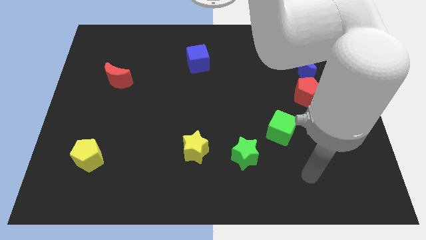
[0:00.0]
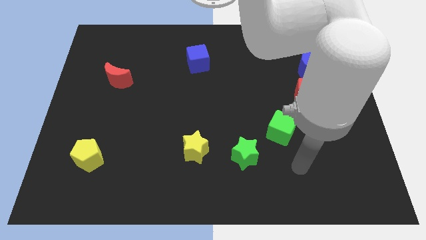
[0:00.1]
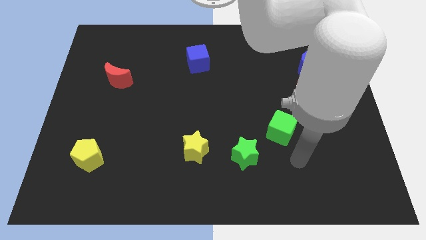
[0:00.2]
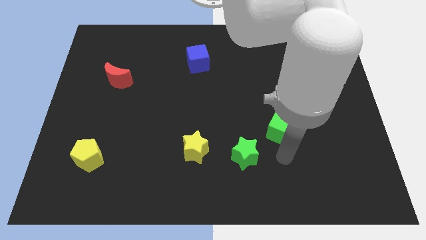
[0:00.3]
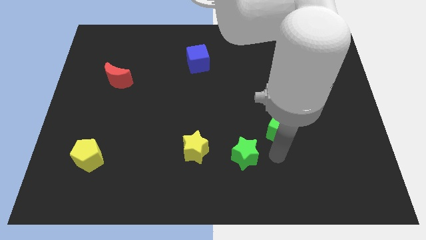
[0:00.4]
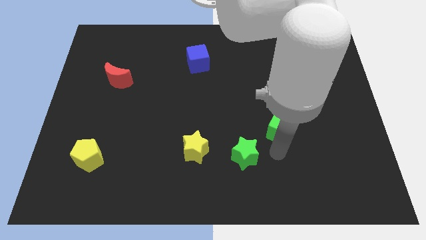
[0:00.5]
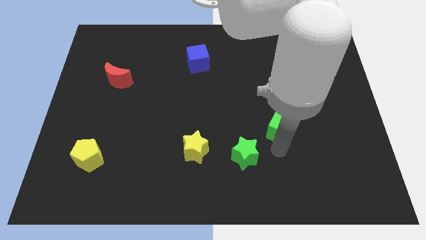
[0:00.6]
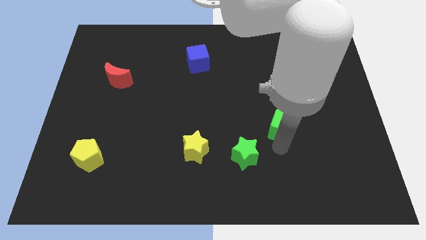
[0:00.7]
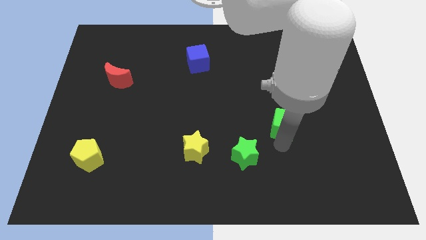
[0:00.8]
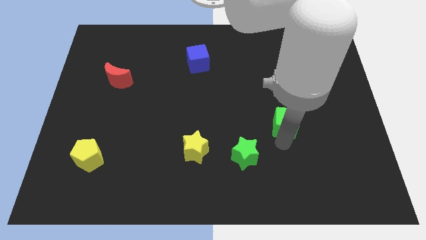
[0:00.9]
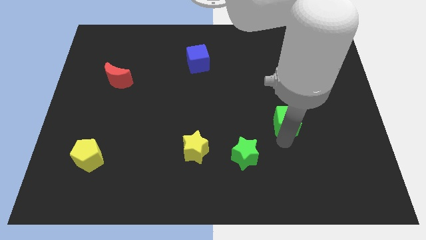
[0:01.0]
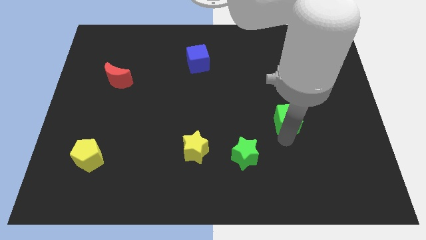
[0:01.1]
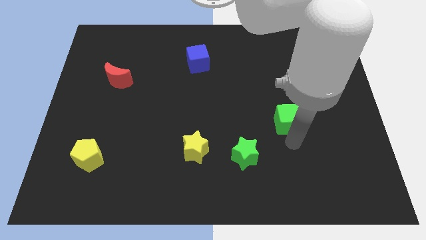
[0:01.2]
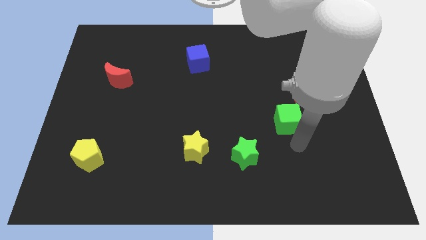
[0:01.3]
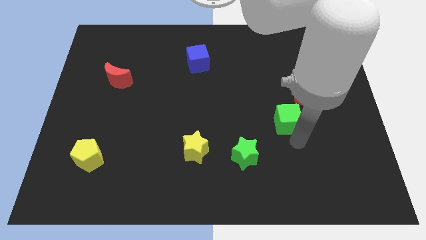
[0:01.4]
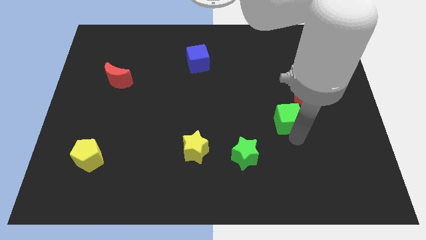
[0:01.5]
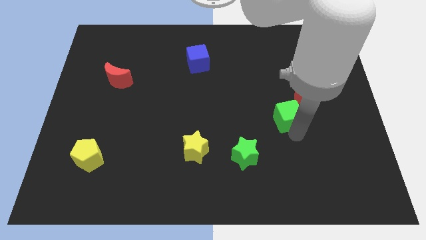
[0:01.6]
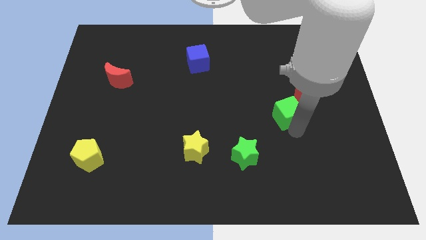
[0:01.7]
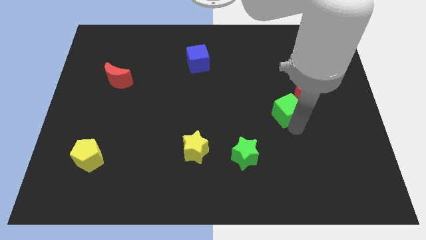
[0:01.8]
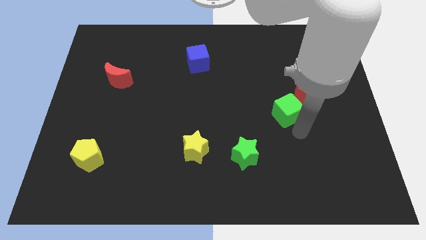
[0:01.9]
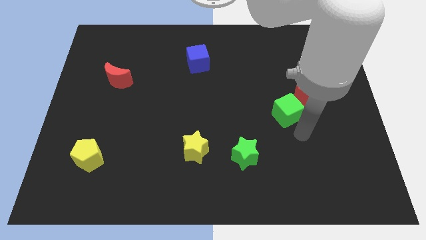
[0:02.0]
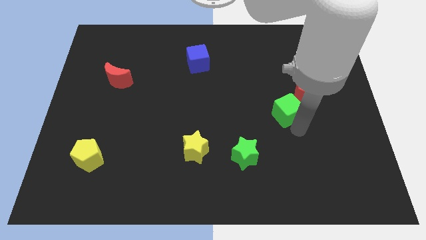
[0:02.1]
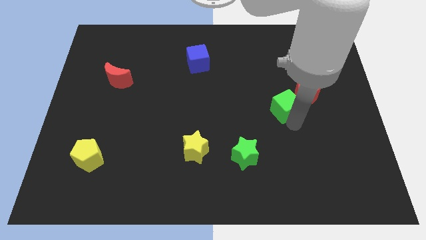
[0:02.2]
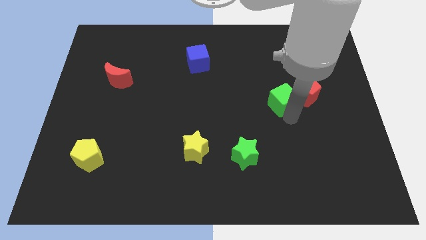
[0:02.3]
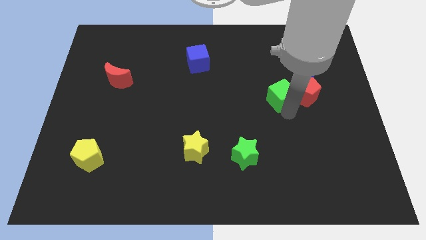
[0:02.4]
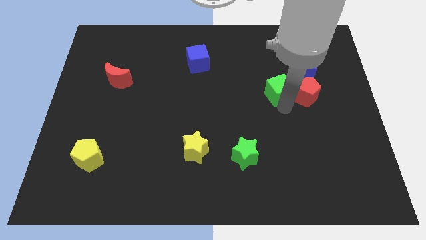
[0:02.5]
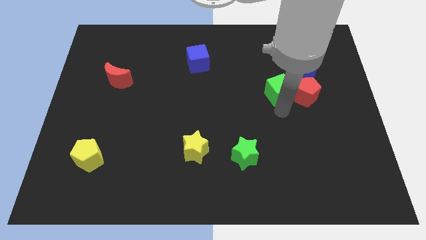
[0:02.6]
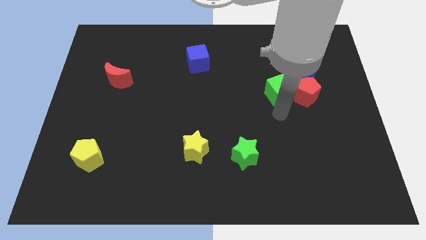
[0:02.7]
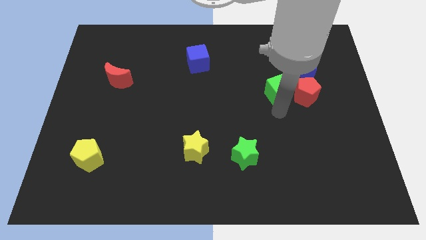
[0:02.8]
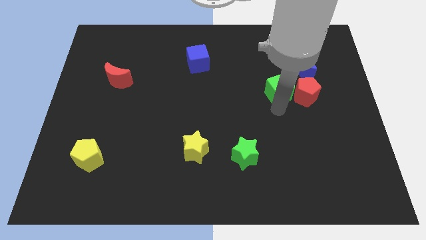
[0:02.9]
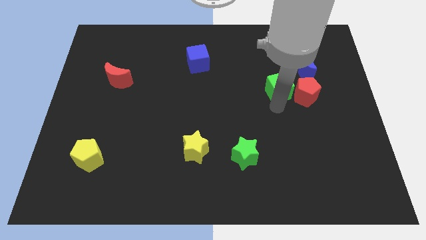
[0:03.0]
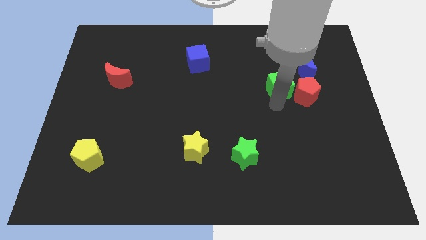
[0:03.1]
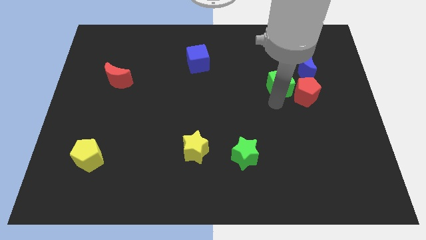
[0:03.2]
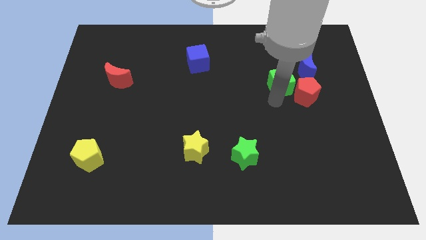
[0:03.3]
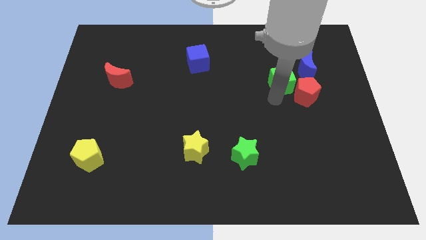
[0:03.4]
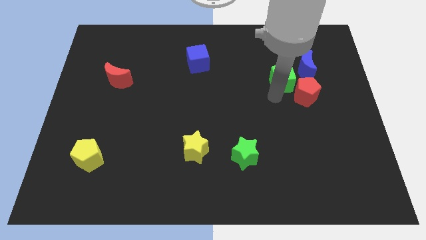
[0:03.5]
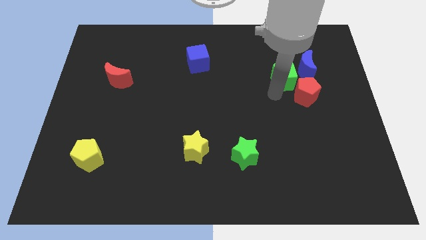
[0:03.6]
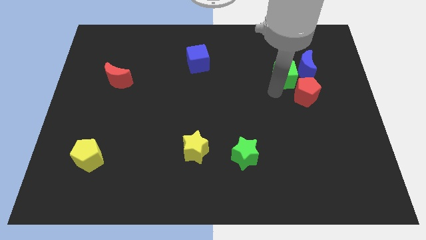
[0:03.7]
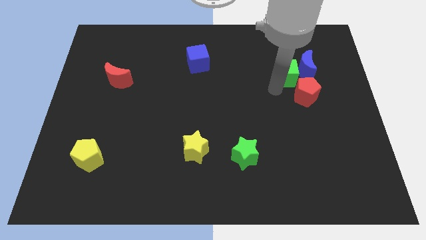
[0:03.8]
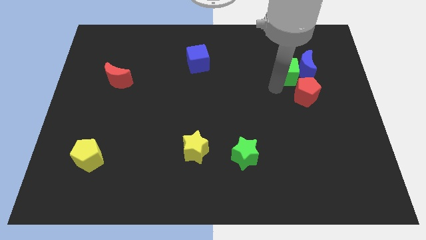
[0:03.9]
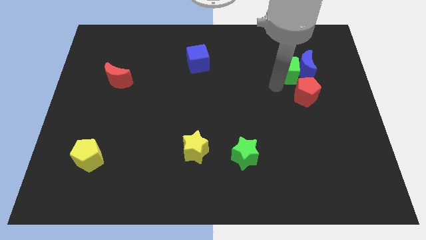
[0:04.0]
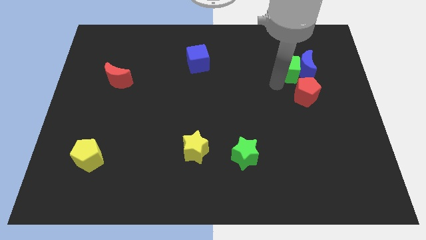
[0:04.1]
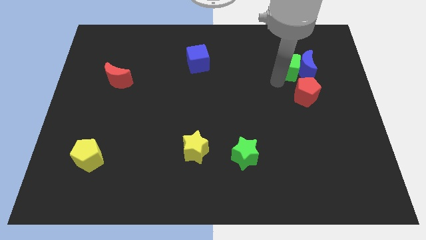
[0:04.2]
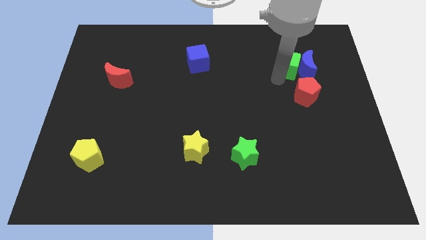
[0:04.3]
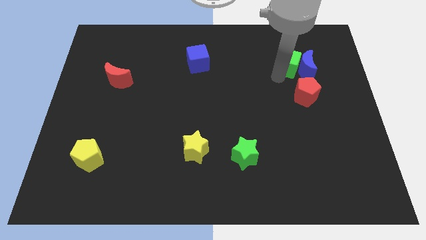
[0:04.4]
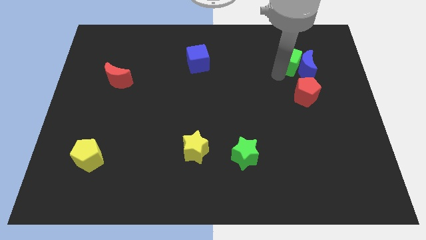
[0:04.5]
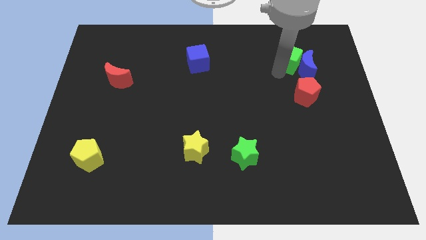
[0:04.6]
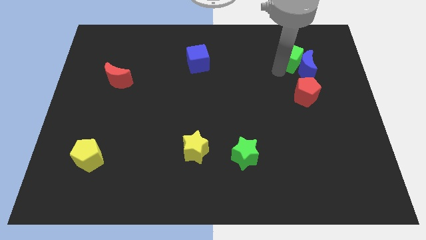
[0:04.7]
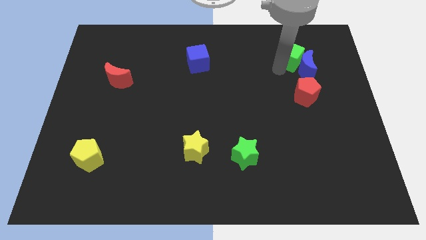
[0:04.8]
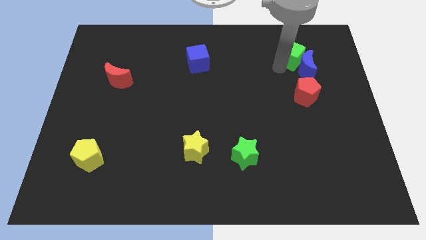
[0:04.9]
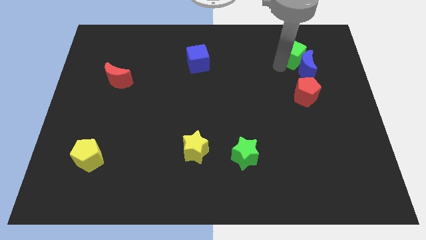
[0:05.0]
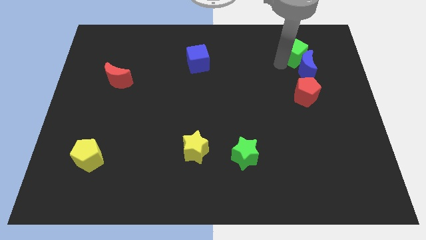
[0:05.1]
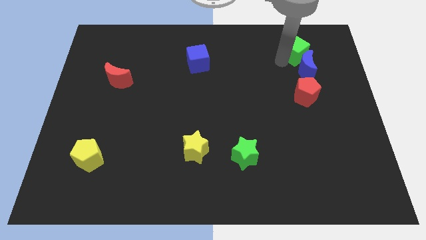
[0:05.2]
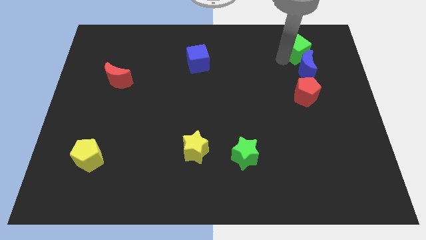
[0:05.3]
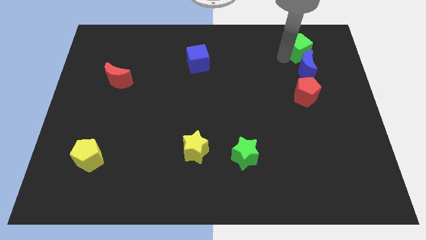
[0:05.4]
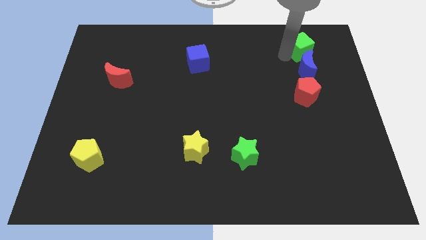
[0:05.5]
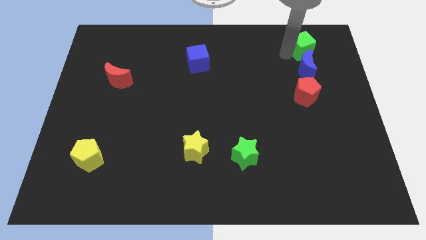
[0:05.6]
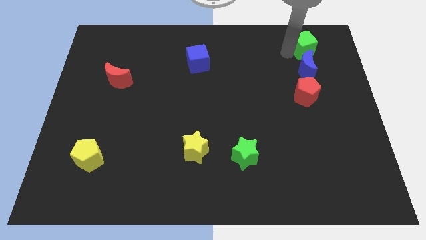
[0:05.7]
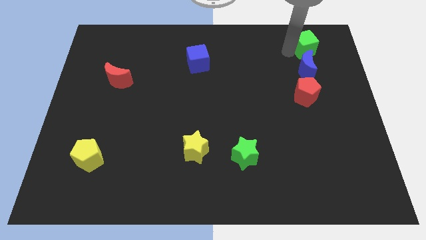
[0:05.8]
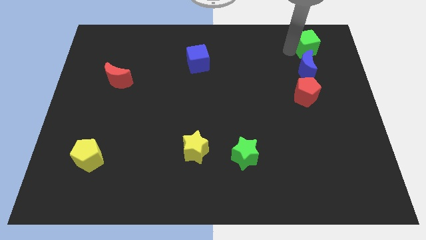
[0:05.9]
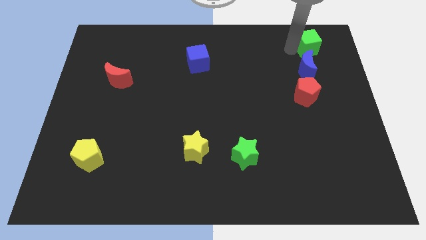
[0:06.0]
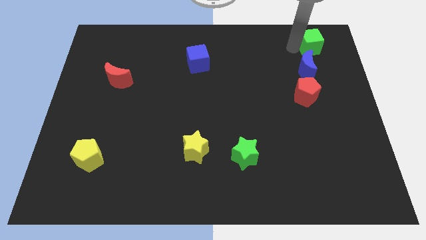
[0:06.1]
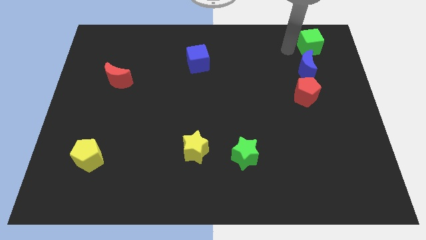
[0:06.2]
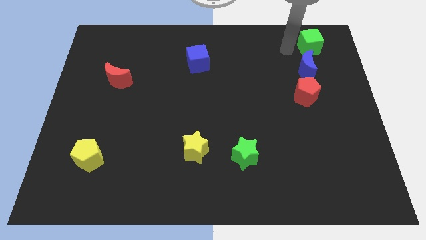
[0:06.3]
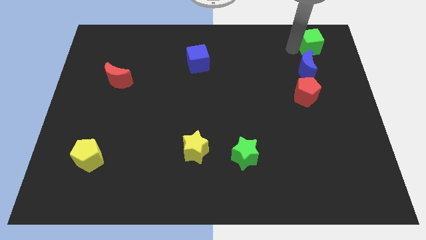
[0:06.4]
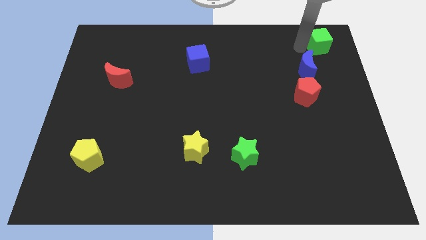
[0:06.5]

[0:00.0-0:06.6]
put the green cube to the top right

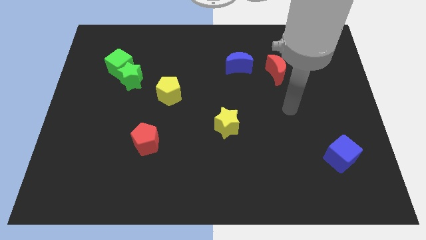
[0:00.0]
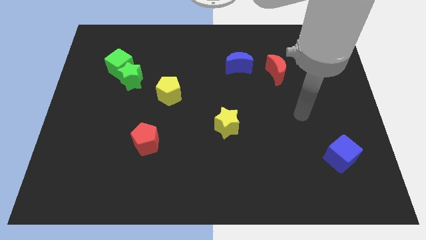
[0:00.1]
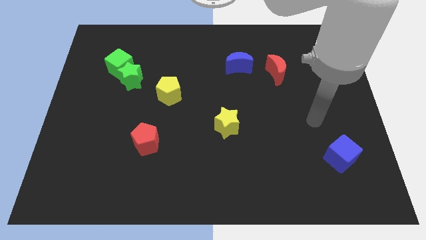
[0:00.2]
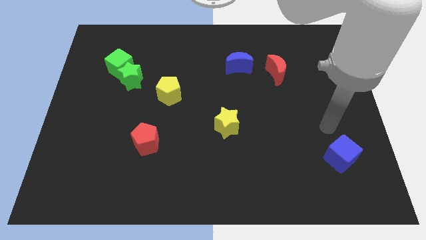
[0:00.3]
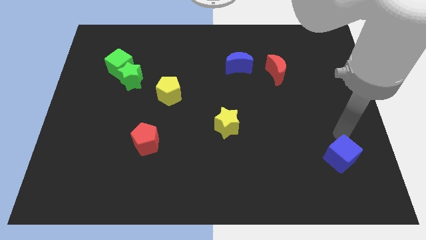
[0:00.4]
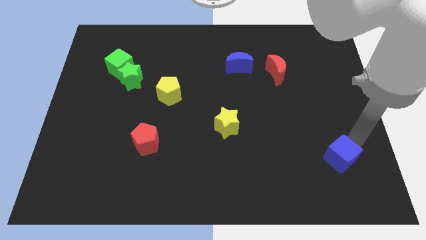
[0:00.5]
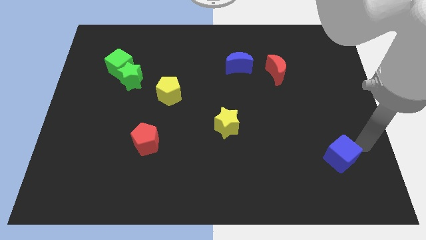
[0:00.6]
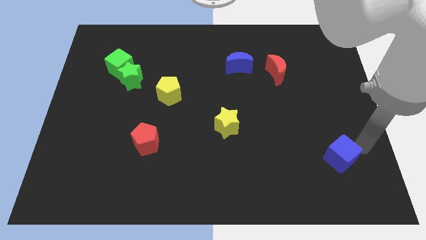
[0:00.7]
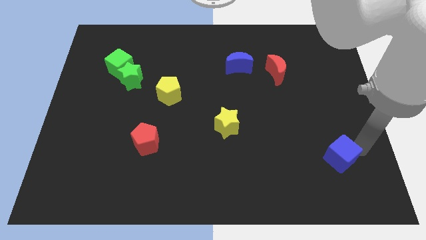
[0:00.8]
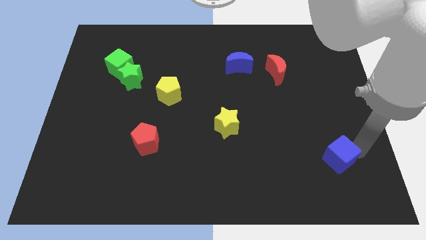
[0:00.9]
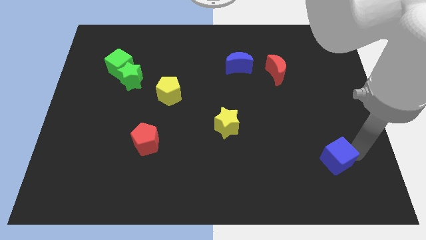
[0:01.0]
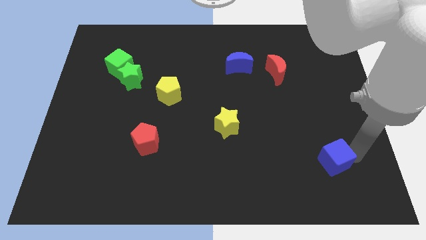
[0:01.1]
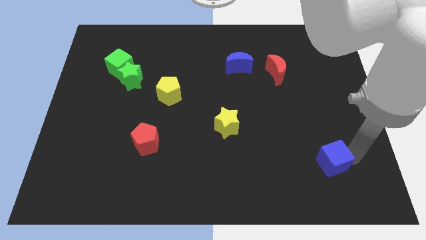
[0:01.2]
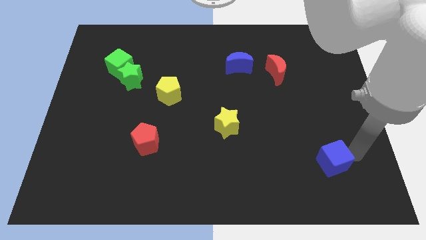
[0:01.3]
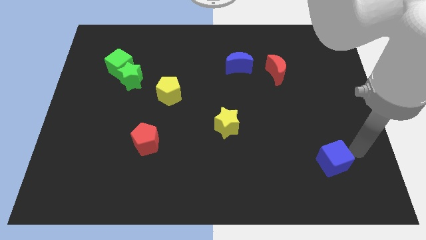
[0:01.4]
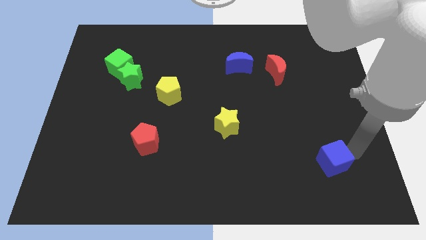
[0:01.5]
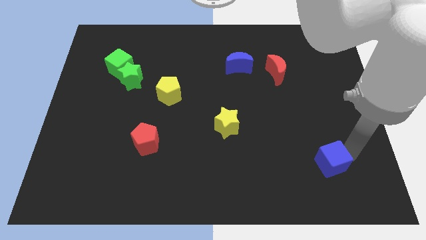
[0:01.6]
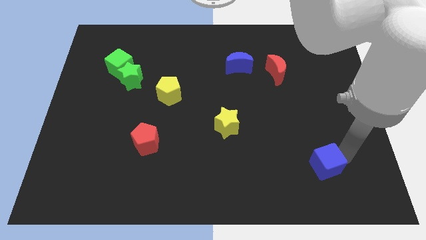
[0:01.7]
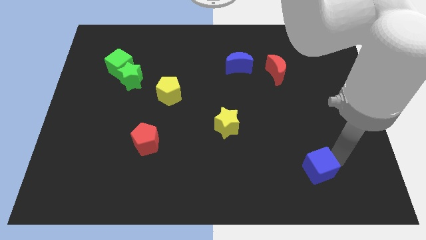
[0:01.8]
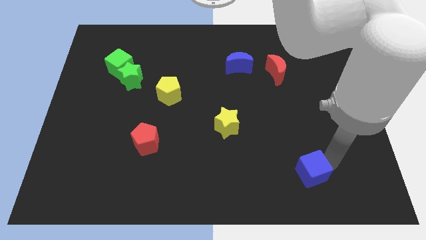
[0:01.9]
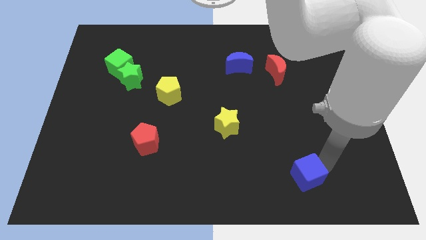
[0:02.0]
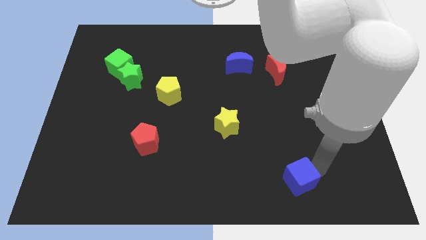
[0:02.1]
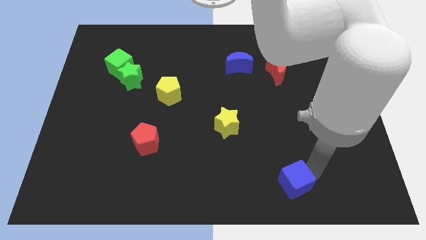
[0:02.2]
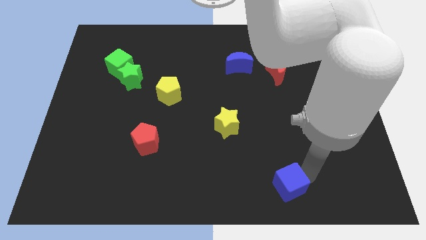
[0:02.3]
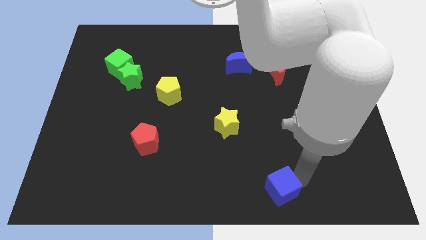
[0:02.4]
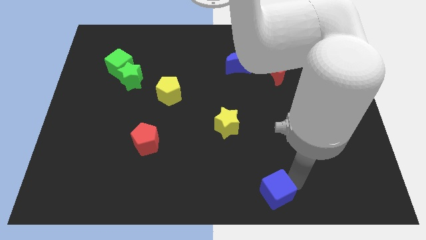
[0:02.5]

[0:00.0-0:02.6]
slide the blue cube to the bottom side
